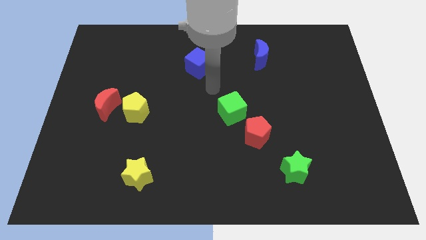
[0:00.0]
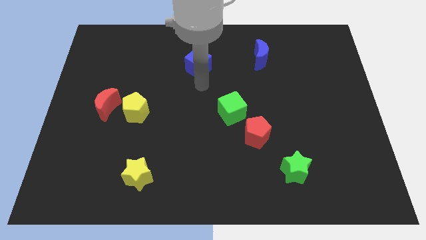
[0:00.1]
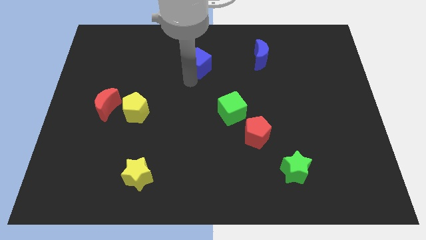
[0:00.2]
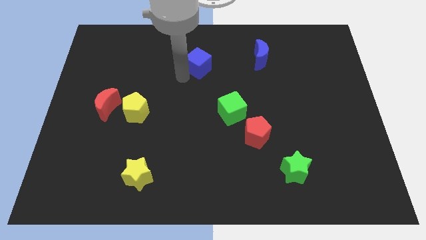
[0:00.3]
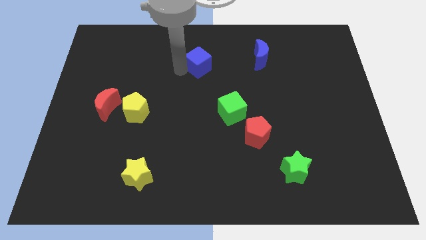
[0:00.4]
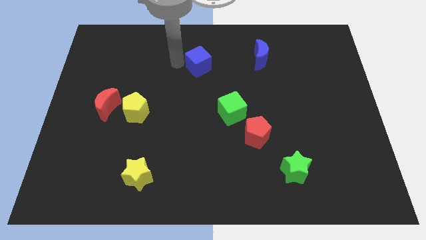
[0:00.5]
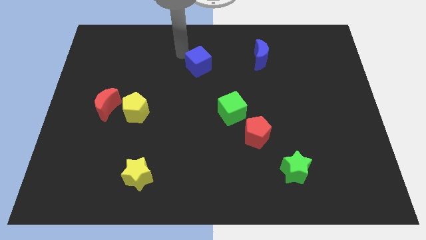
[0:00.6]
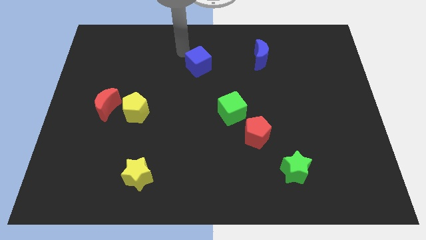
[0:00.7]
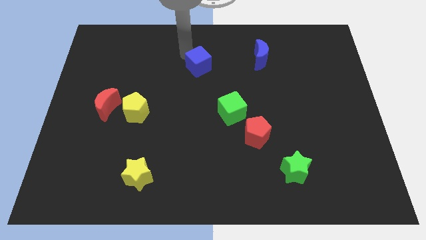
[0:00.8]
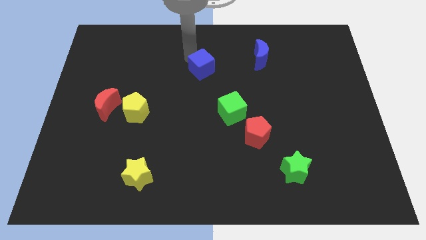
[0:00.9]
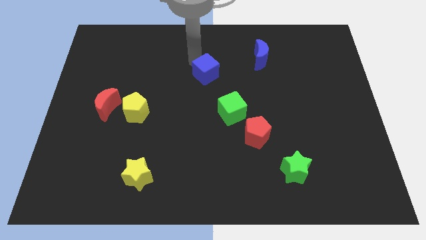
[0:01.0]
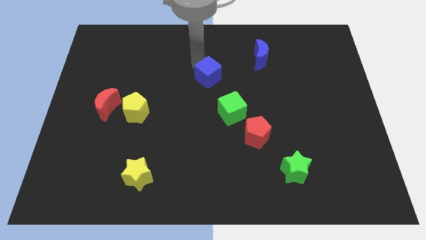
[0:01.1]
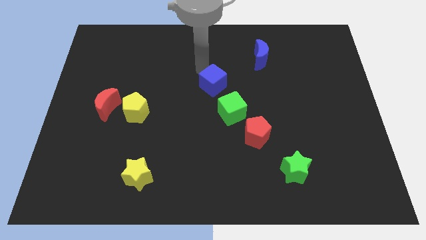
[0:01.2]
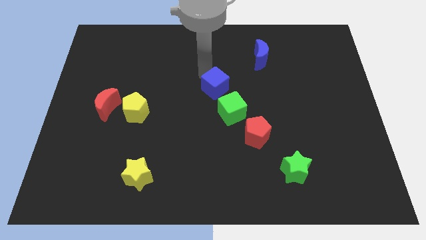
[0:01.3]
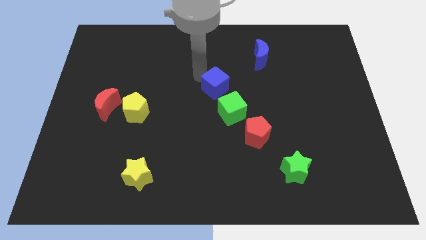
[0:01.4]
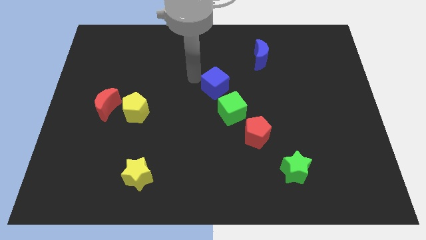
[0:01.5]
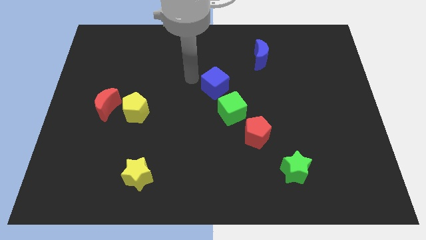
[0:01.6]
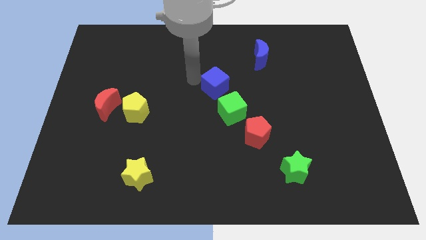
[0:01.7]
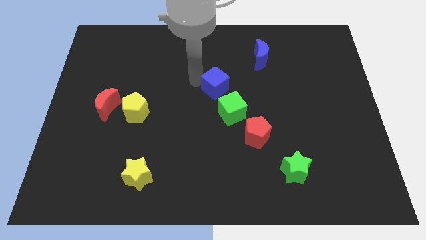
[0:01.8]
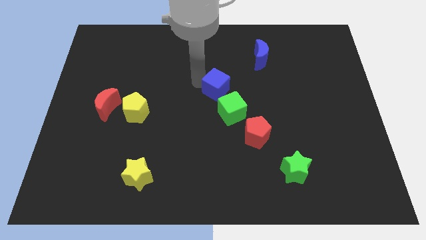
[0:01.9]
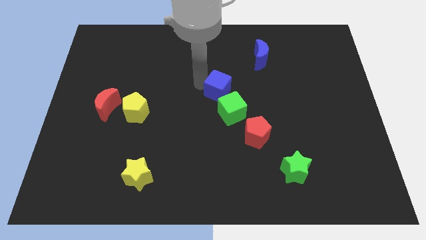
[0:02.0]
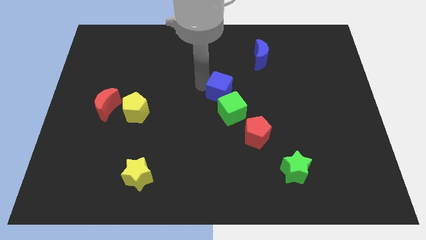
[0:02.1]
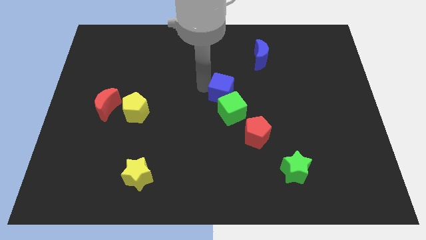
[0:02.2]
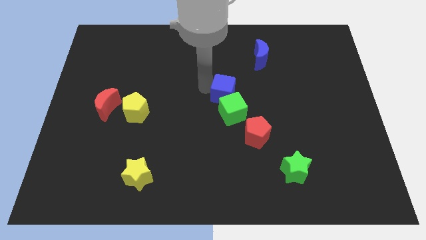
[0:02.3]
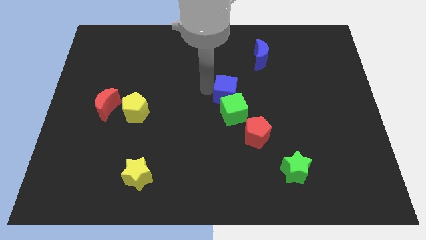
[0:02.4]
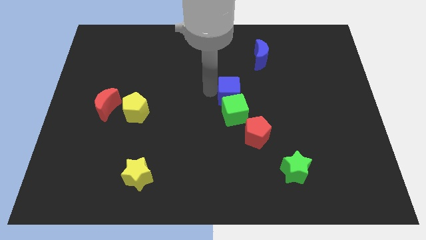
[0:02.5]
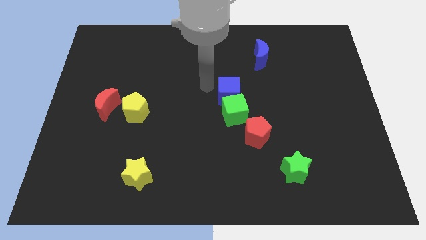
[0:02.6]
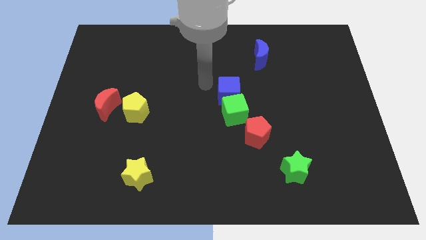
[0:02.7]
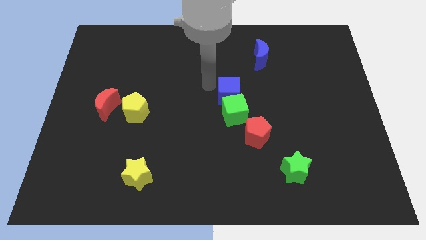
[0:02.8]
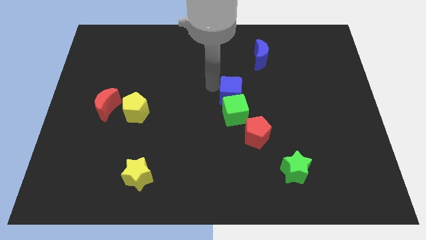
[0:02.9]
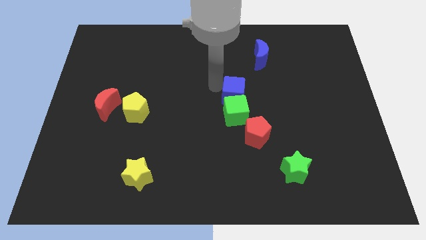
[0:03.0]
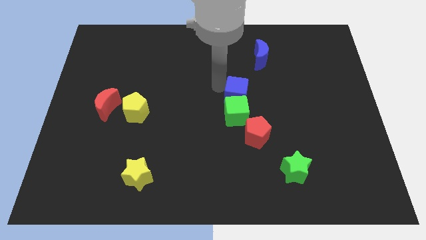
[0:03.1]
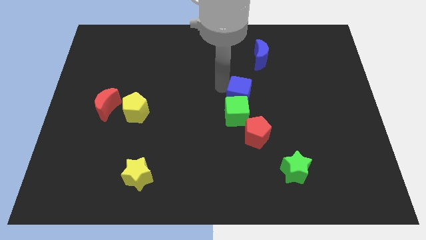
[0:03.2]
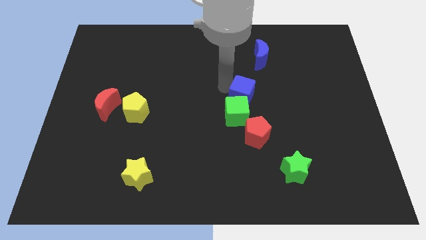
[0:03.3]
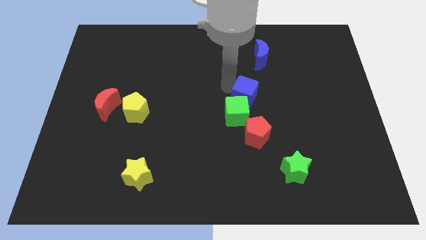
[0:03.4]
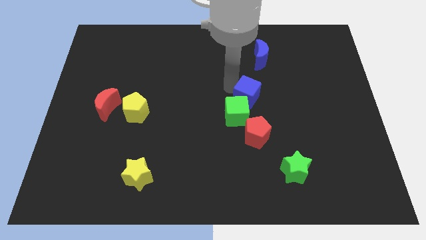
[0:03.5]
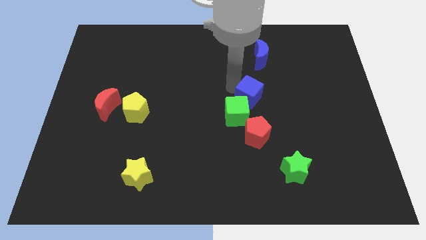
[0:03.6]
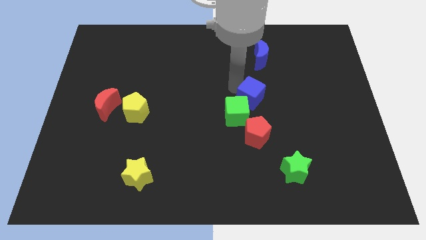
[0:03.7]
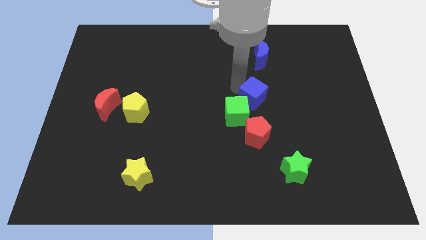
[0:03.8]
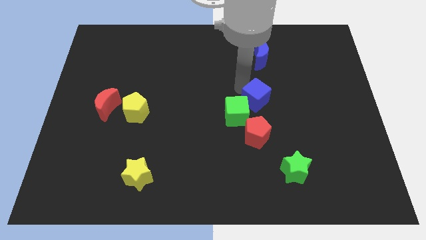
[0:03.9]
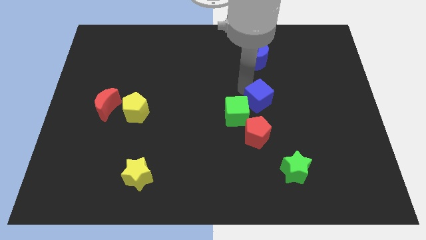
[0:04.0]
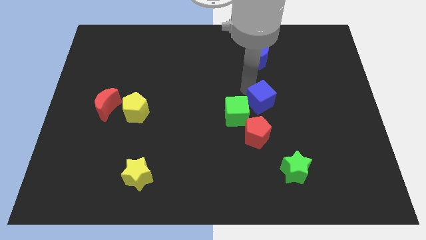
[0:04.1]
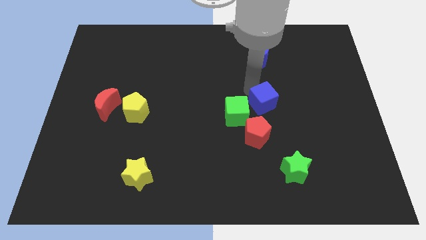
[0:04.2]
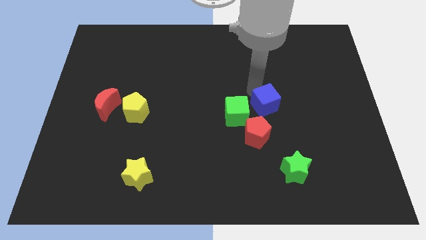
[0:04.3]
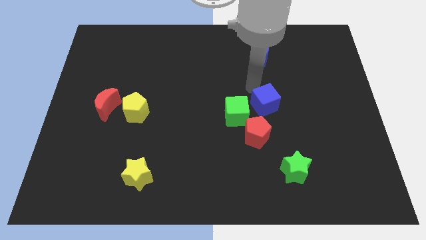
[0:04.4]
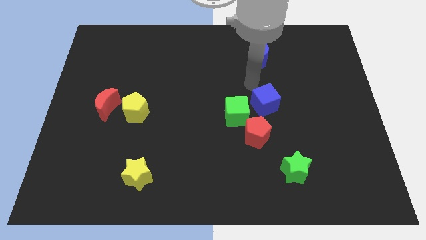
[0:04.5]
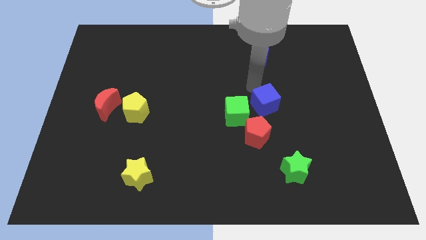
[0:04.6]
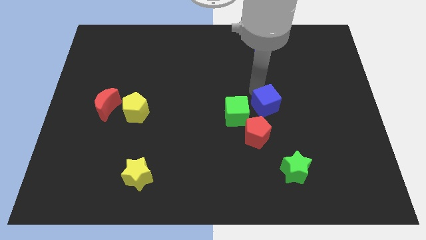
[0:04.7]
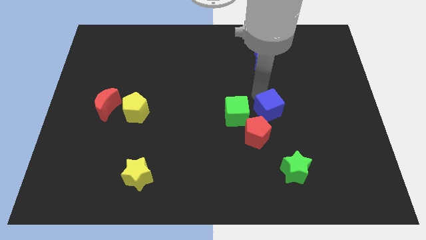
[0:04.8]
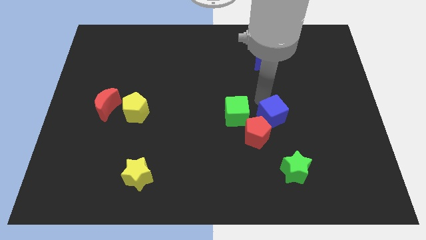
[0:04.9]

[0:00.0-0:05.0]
put the blue cube above the green star

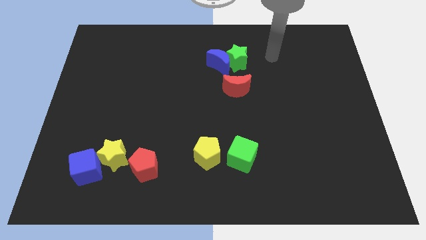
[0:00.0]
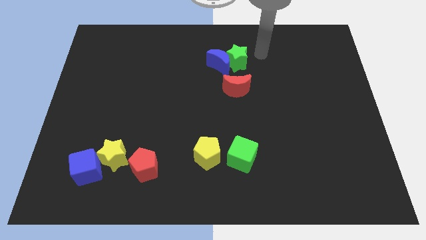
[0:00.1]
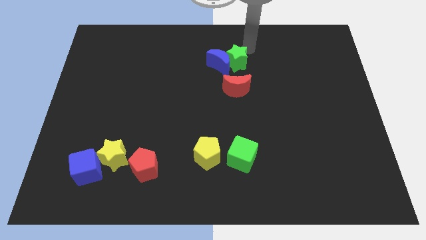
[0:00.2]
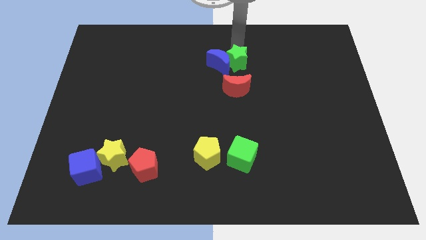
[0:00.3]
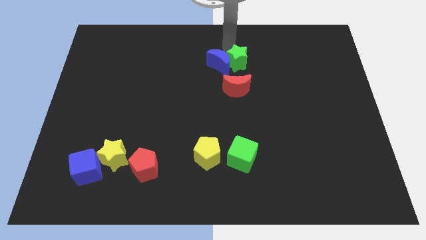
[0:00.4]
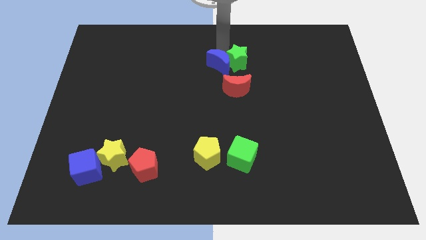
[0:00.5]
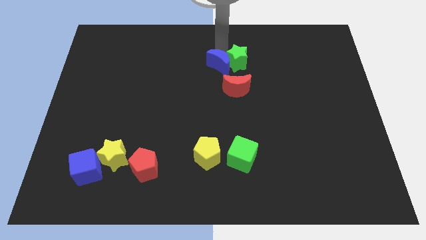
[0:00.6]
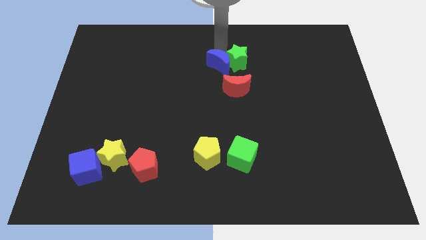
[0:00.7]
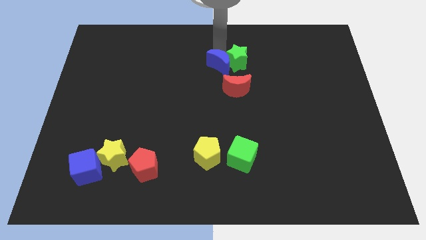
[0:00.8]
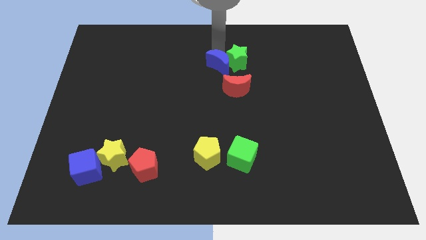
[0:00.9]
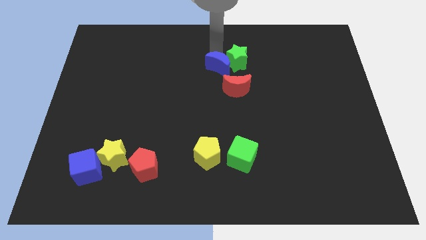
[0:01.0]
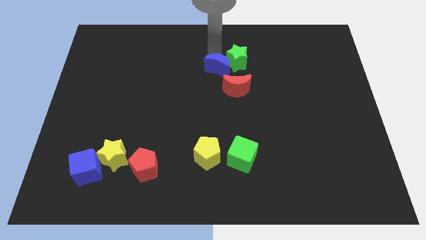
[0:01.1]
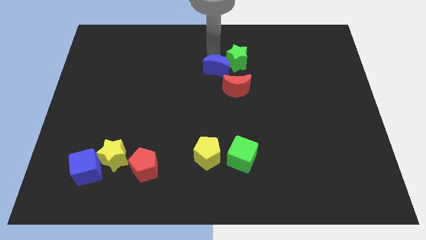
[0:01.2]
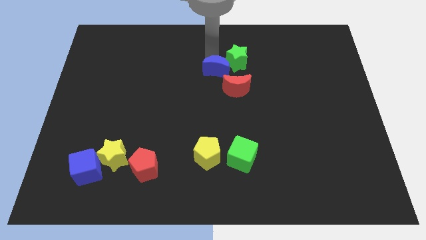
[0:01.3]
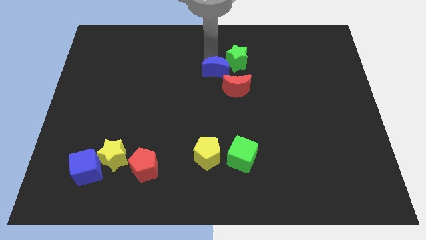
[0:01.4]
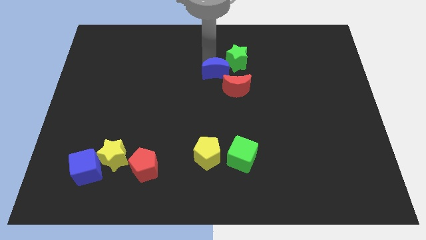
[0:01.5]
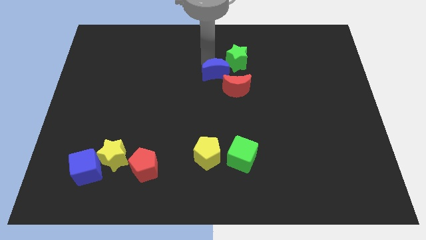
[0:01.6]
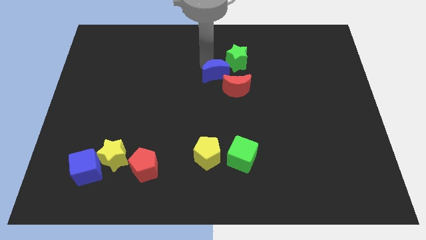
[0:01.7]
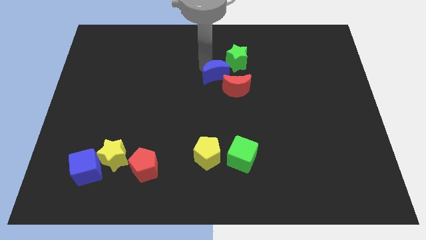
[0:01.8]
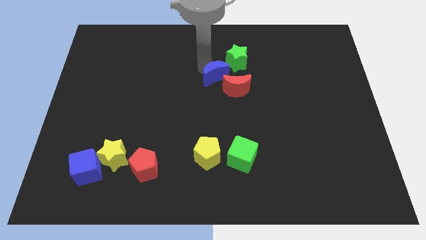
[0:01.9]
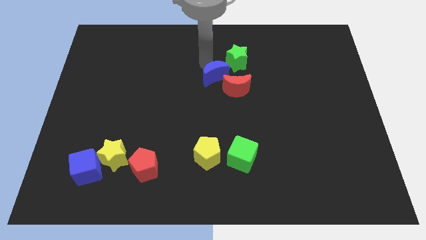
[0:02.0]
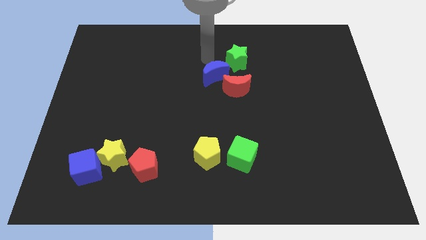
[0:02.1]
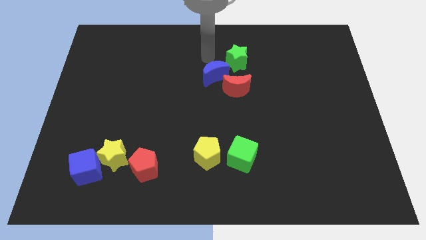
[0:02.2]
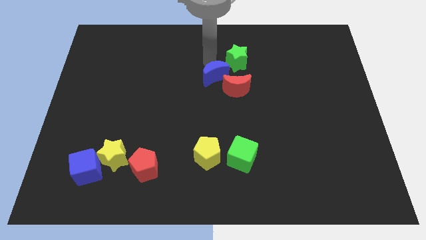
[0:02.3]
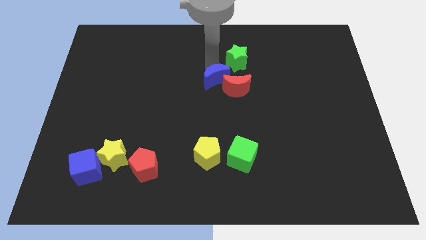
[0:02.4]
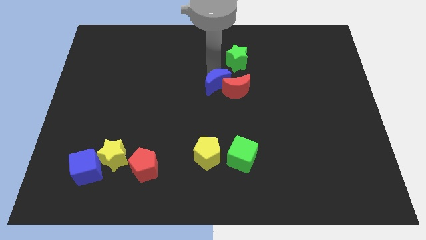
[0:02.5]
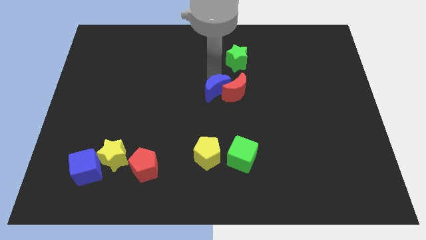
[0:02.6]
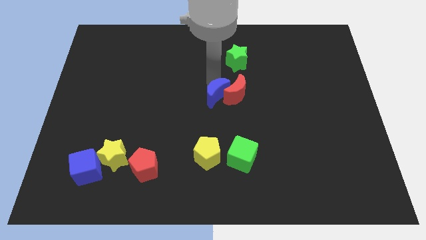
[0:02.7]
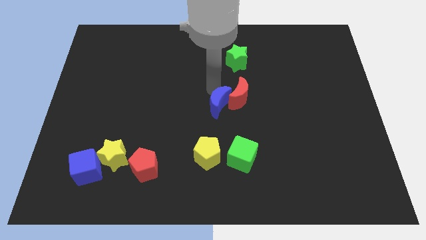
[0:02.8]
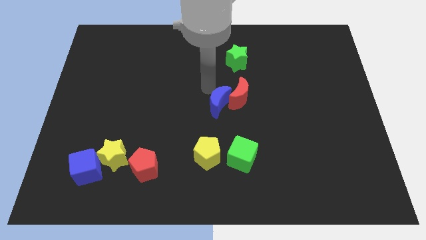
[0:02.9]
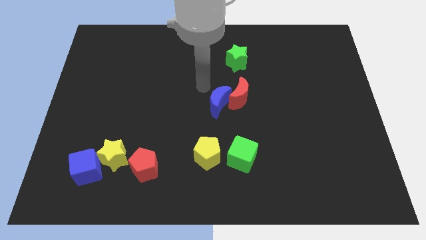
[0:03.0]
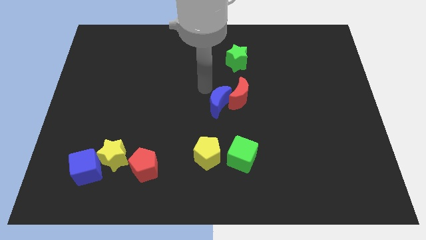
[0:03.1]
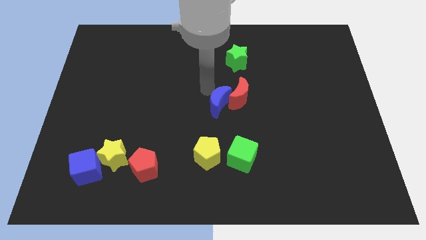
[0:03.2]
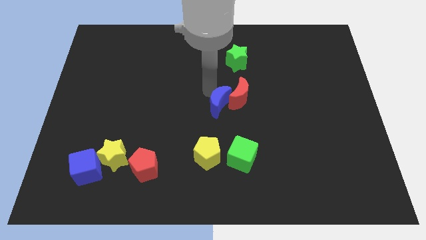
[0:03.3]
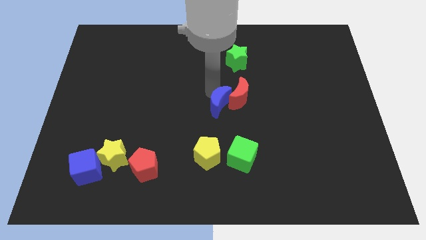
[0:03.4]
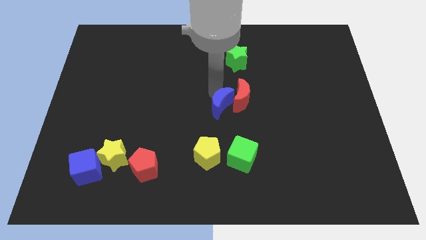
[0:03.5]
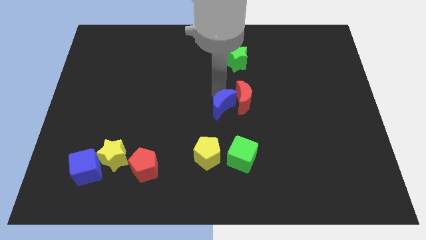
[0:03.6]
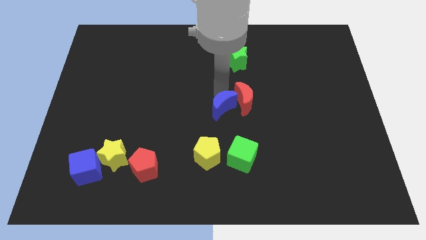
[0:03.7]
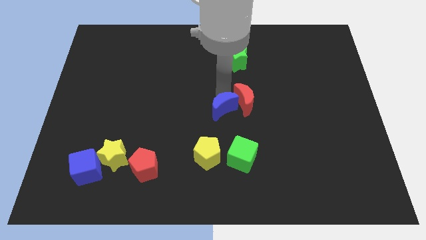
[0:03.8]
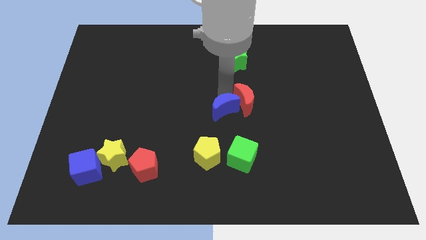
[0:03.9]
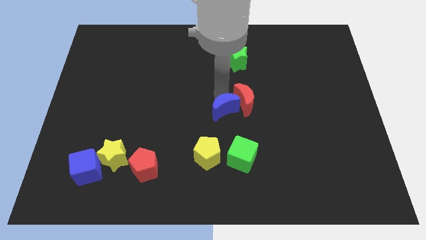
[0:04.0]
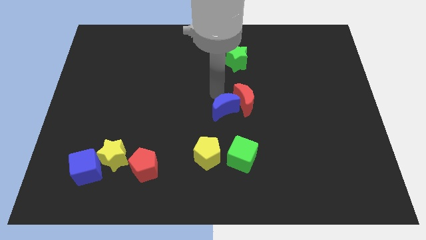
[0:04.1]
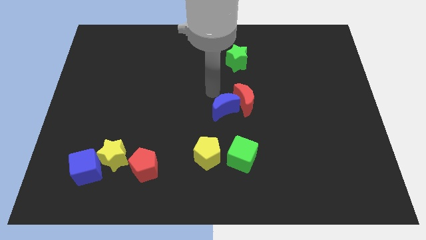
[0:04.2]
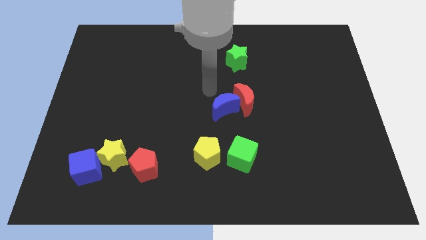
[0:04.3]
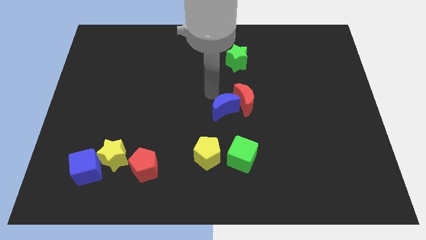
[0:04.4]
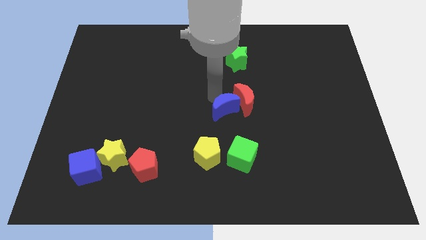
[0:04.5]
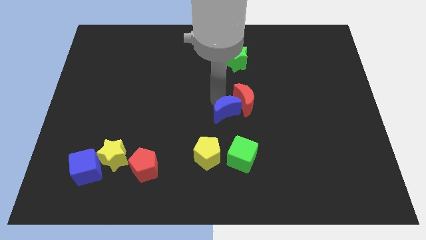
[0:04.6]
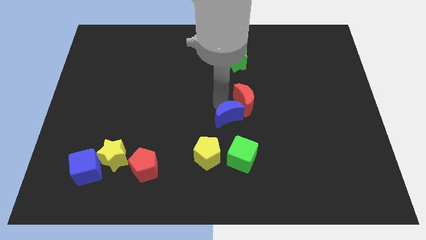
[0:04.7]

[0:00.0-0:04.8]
move the blue moon to the top right of the yellow pentagon
